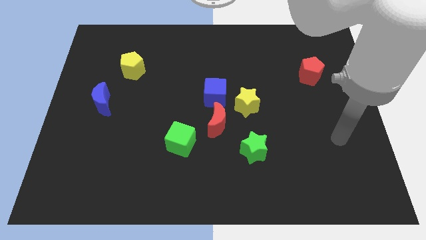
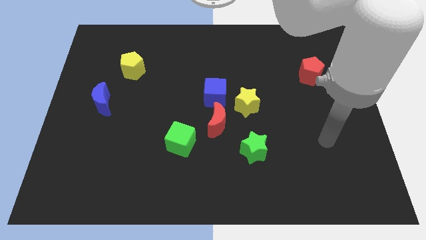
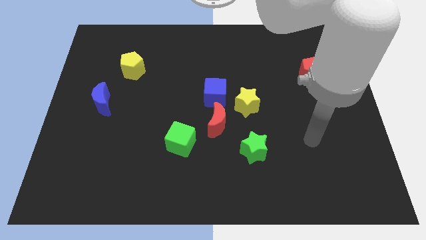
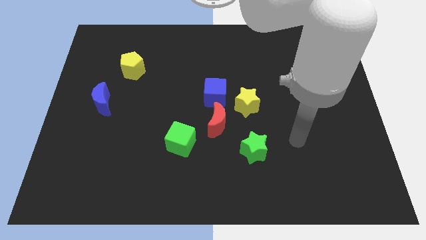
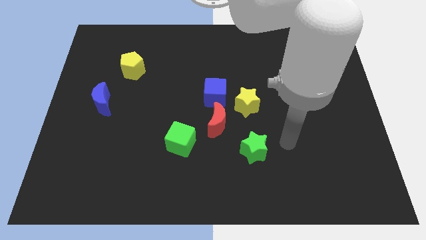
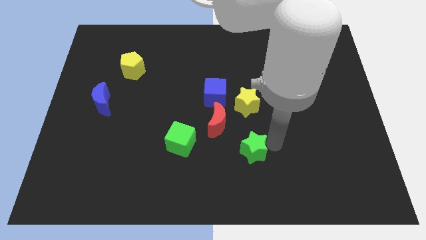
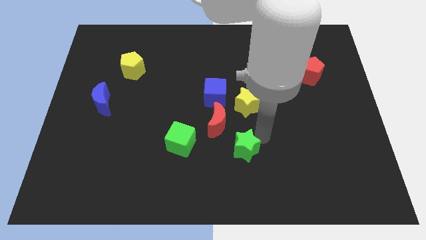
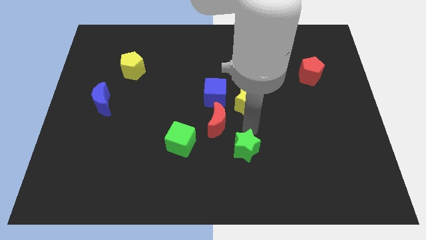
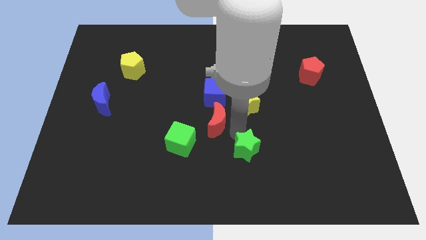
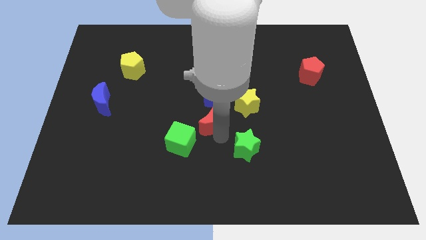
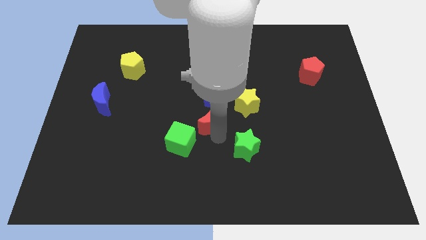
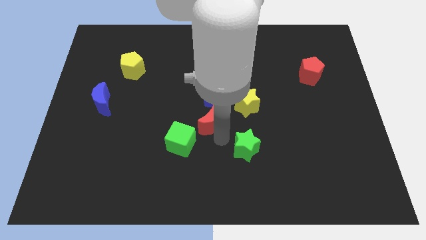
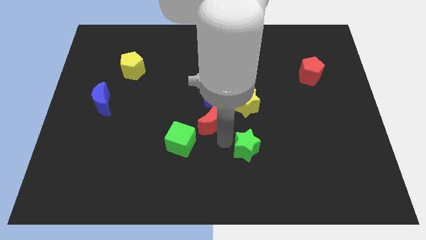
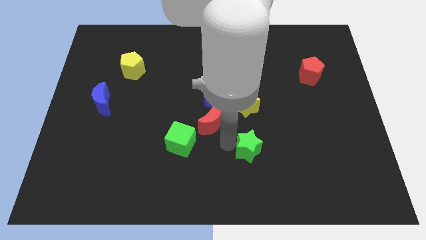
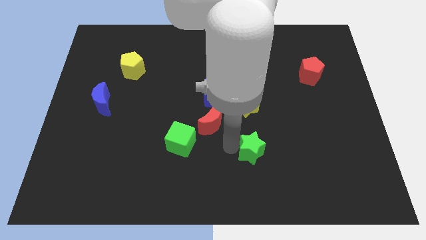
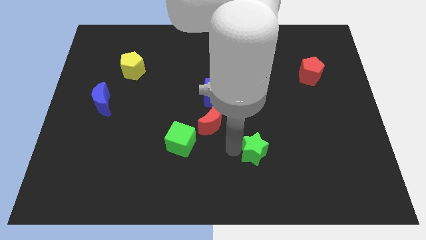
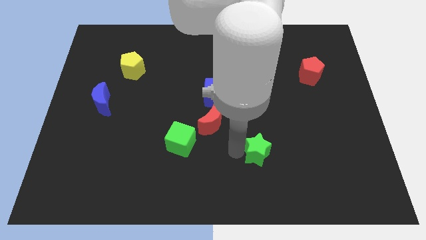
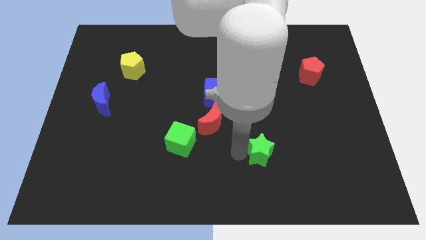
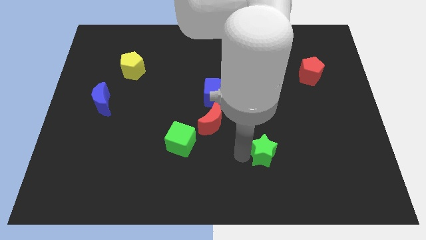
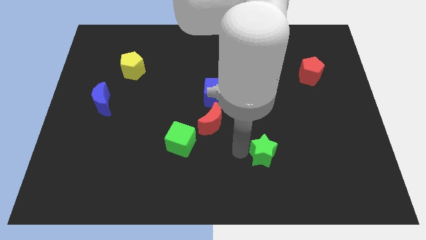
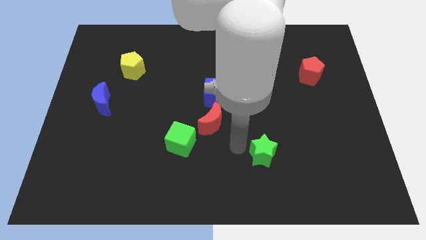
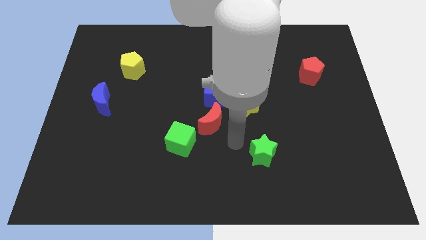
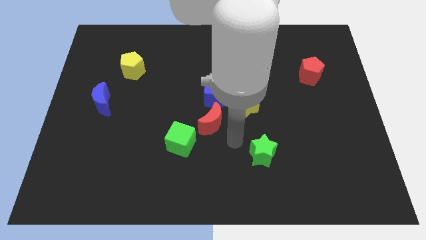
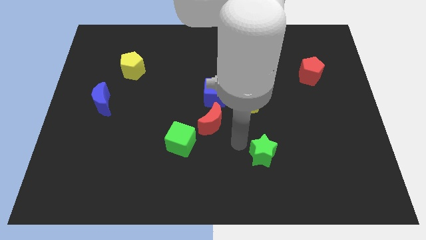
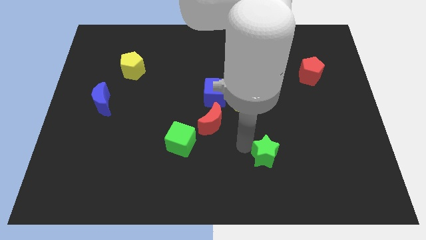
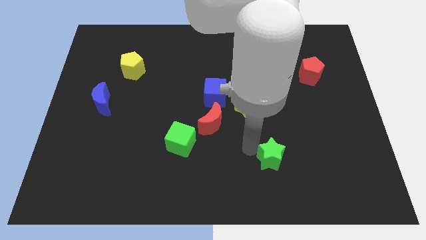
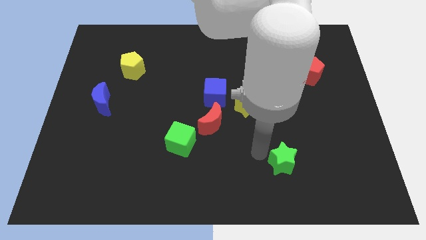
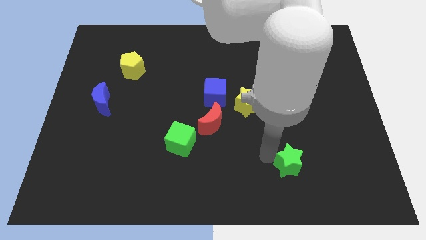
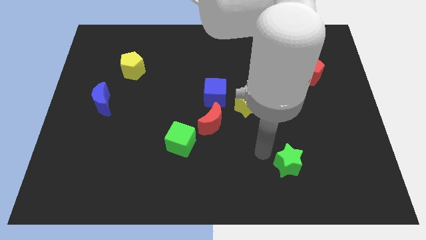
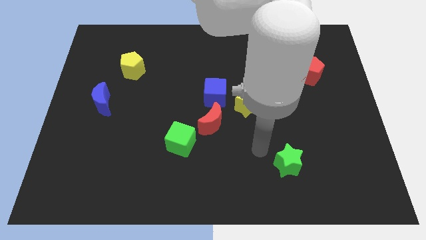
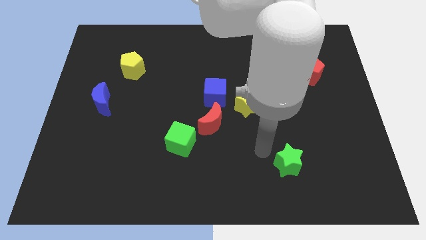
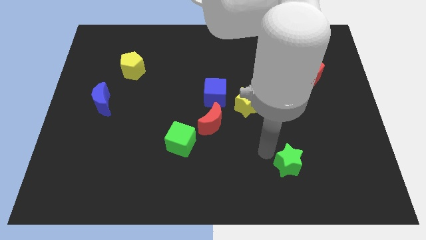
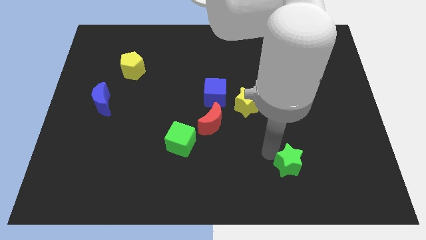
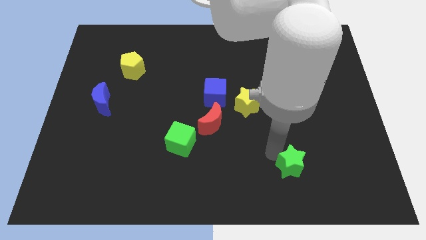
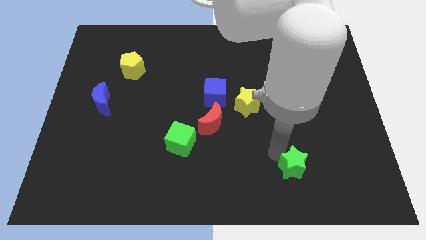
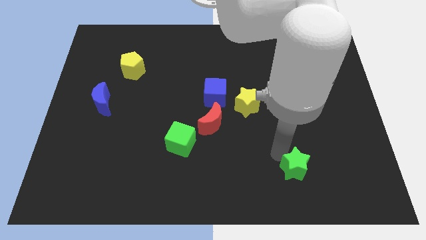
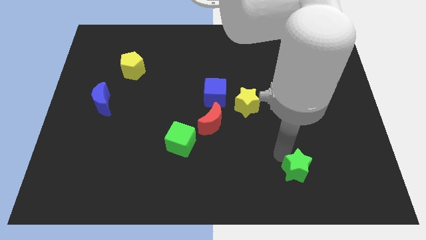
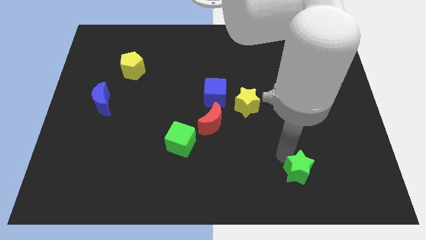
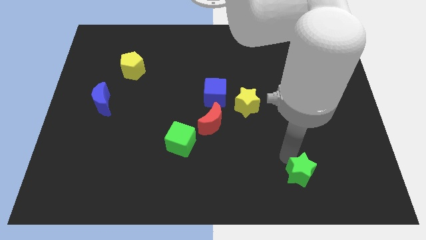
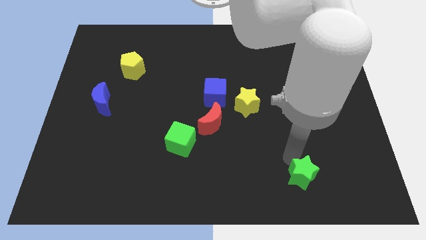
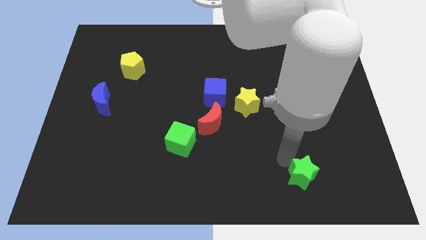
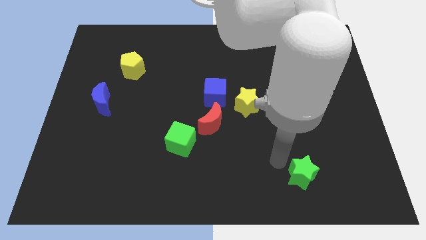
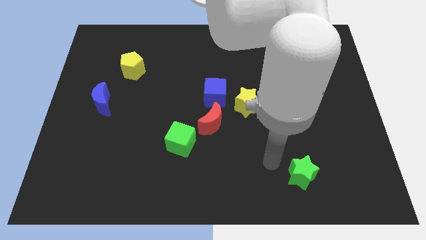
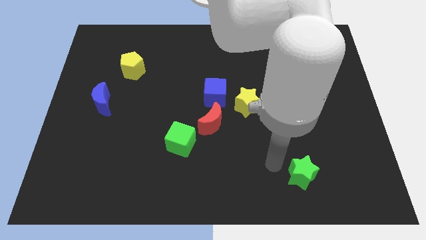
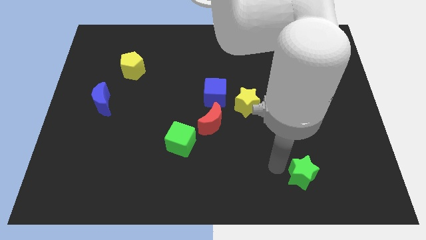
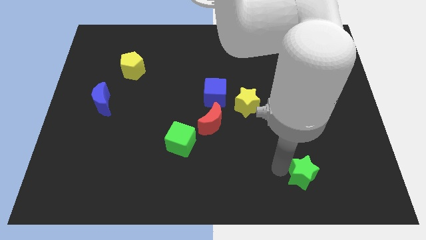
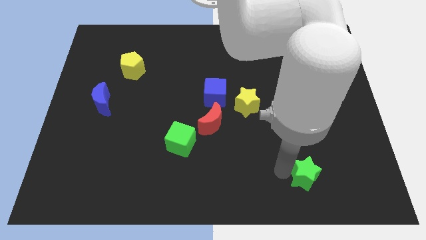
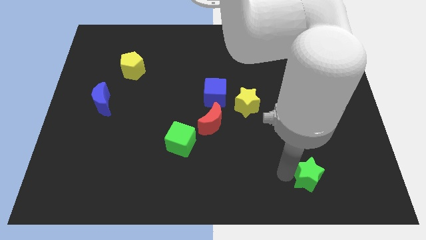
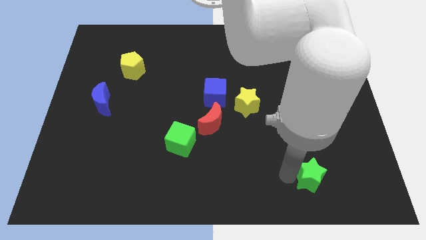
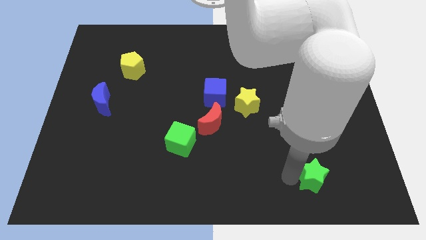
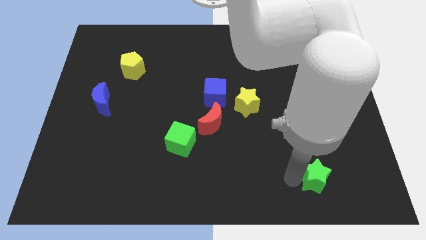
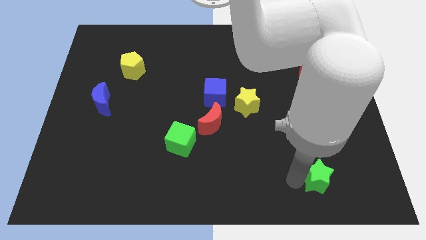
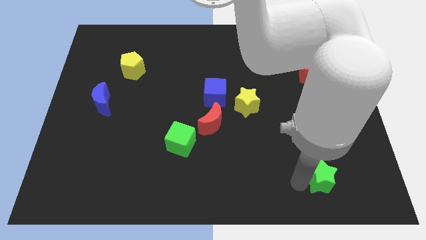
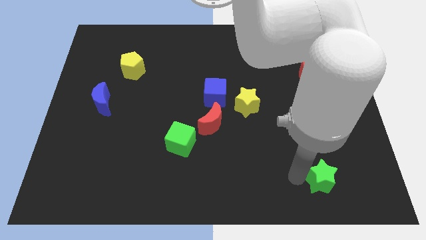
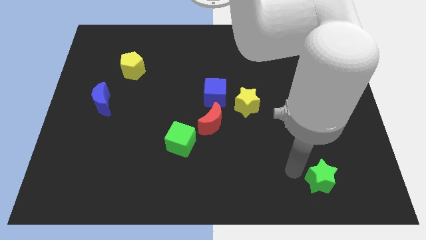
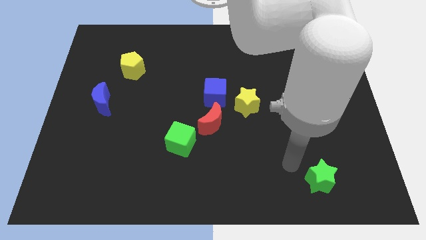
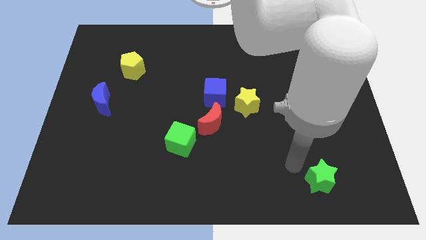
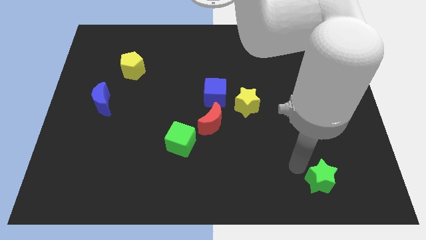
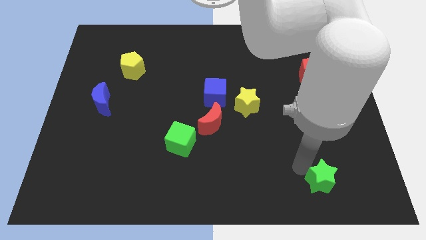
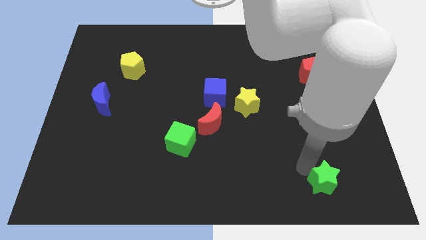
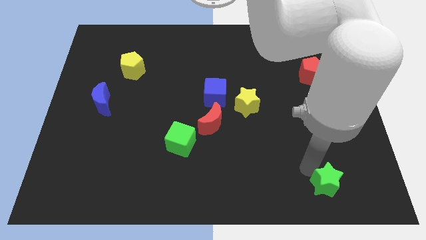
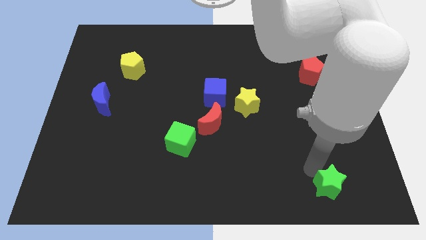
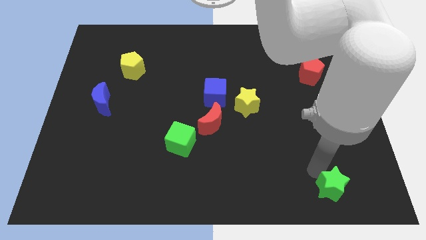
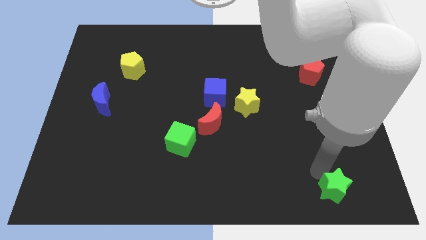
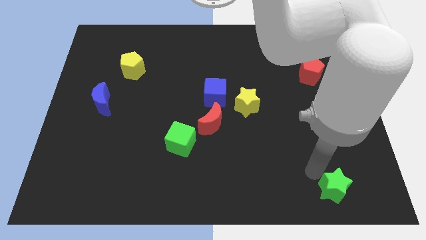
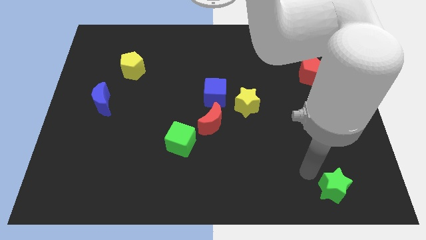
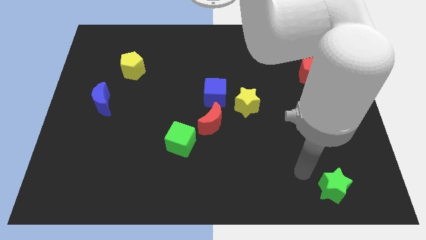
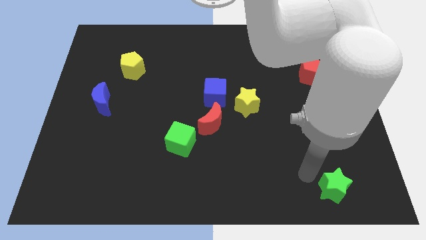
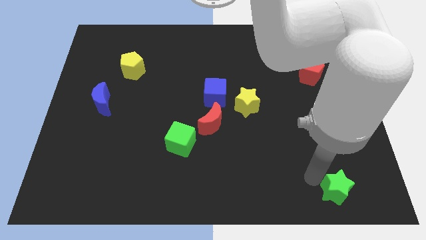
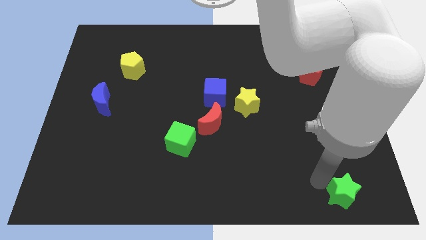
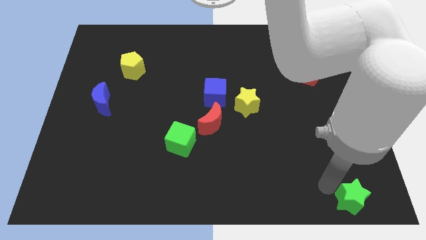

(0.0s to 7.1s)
push the green star to the bottom right of the board
